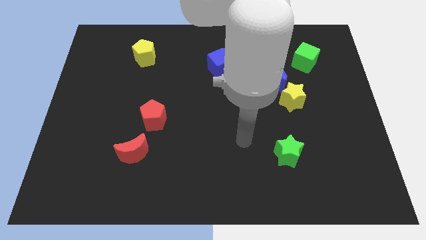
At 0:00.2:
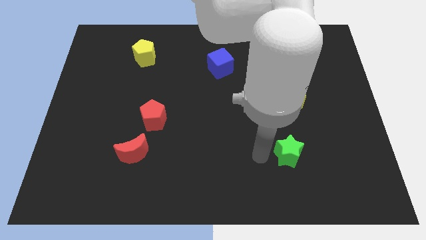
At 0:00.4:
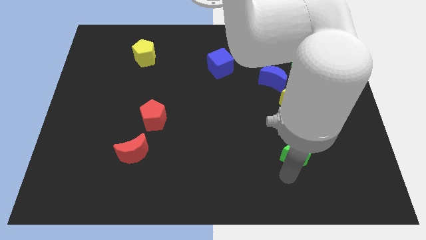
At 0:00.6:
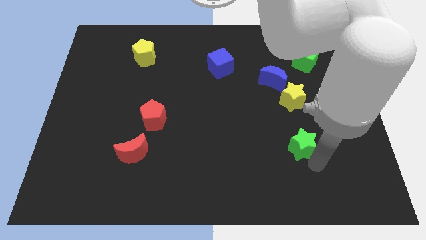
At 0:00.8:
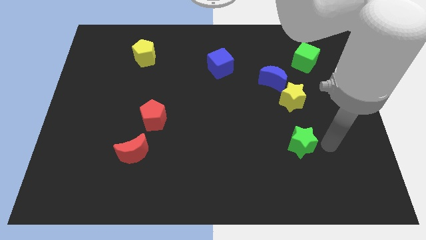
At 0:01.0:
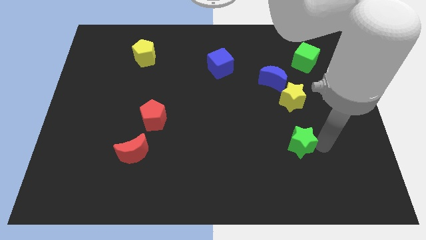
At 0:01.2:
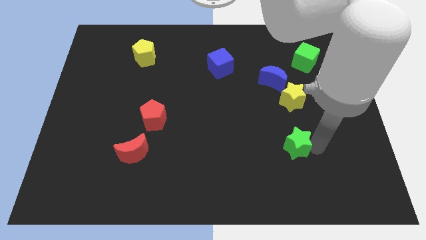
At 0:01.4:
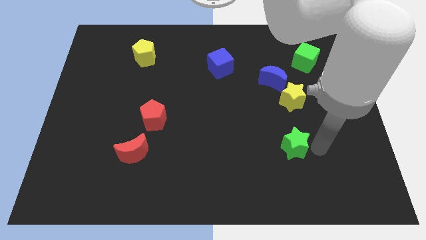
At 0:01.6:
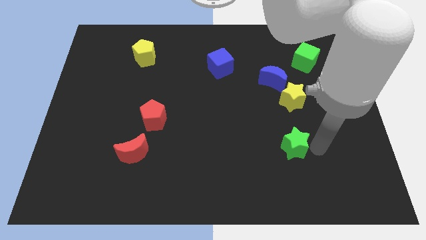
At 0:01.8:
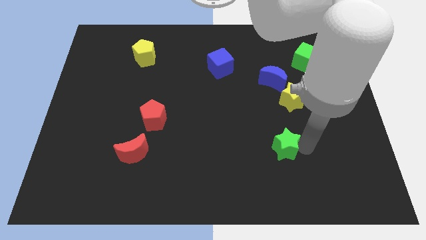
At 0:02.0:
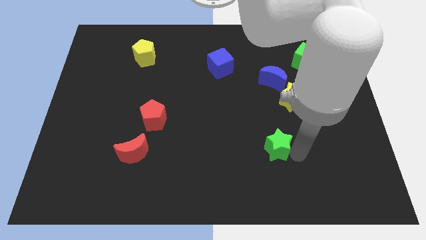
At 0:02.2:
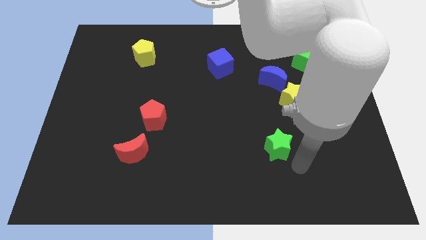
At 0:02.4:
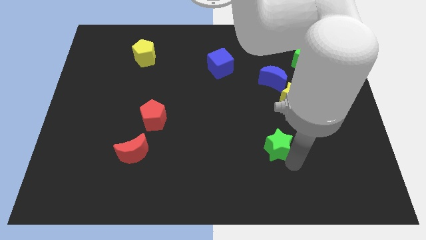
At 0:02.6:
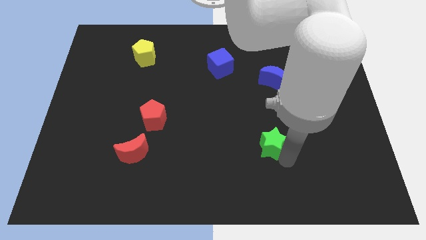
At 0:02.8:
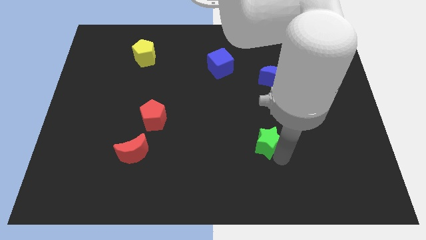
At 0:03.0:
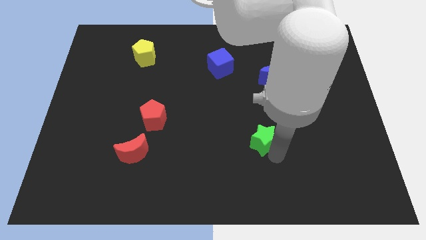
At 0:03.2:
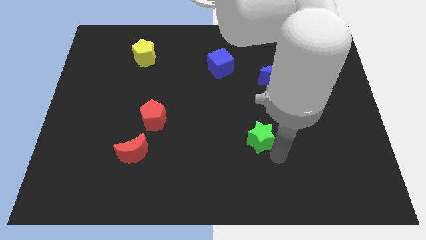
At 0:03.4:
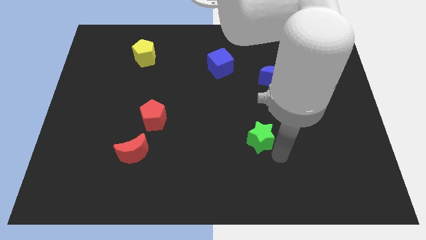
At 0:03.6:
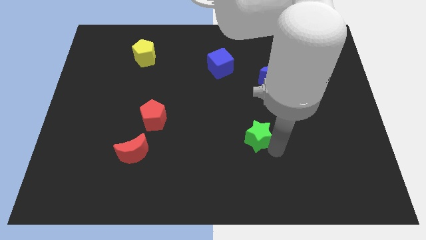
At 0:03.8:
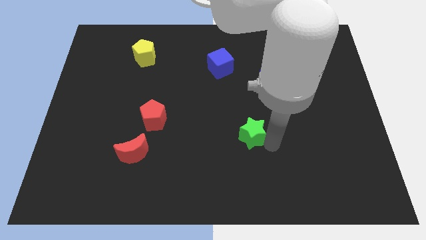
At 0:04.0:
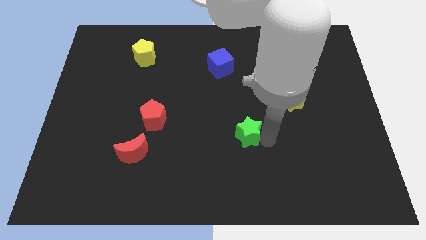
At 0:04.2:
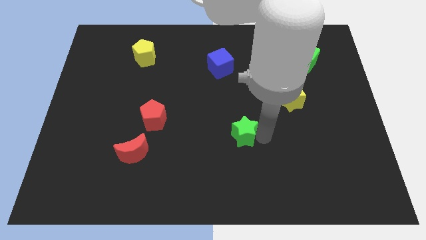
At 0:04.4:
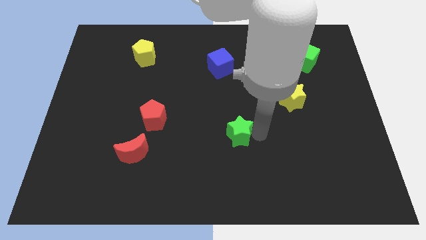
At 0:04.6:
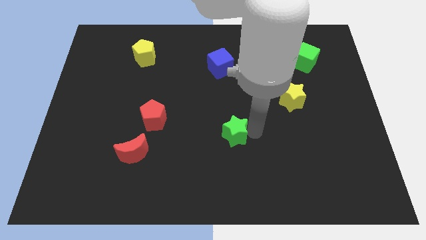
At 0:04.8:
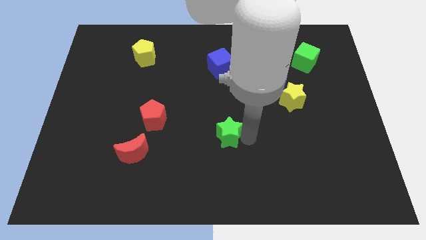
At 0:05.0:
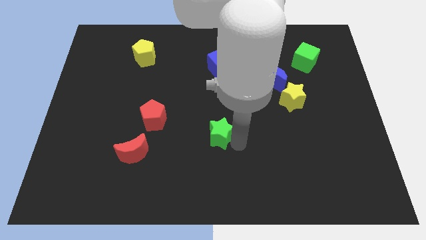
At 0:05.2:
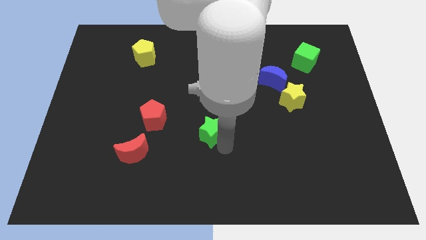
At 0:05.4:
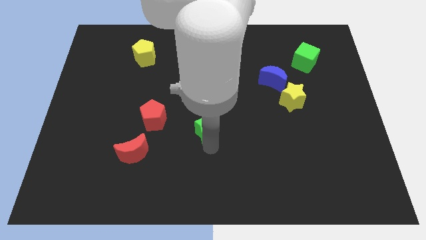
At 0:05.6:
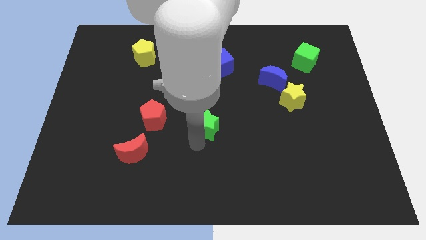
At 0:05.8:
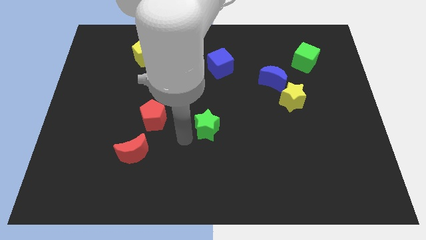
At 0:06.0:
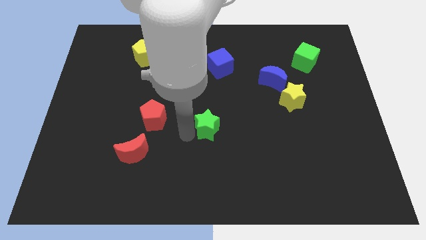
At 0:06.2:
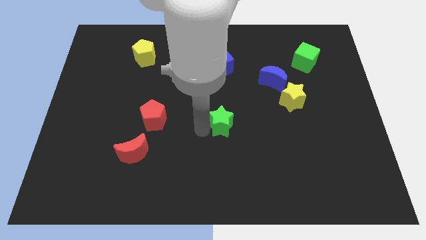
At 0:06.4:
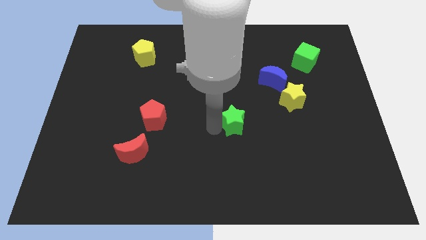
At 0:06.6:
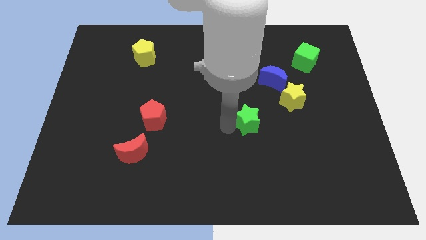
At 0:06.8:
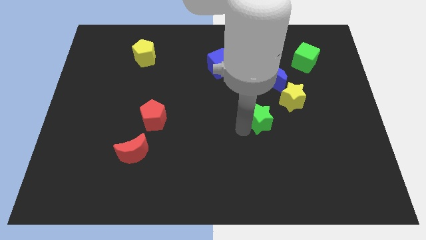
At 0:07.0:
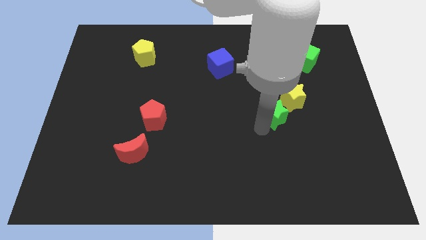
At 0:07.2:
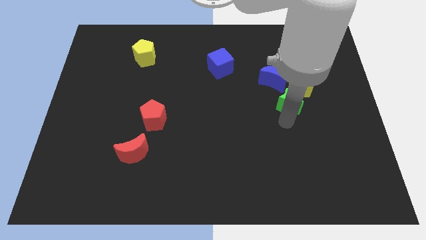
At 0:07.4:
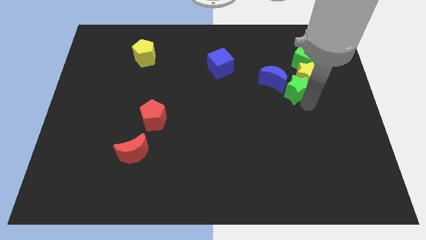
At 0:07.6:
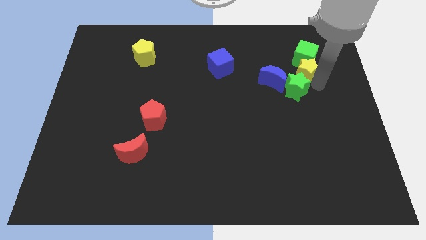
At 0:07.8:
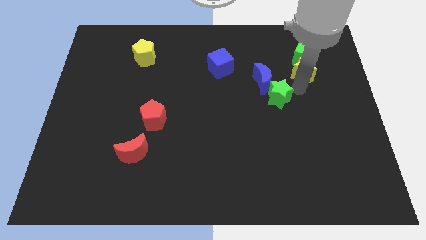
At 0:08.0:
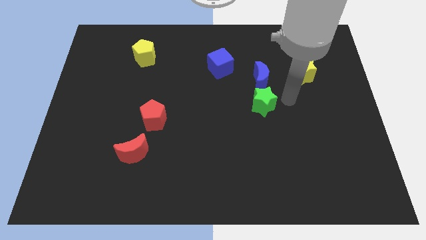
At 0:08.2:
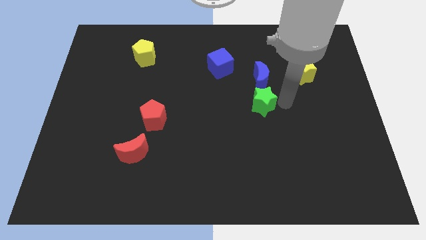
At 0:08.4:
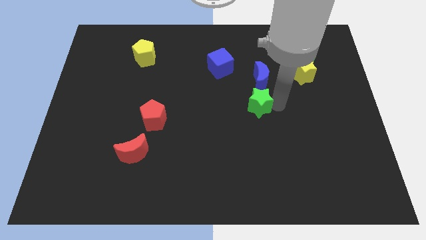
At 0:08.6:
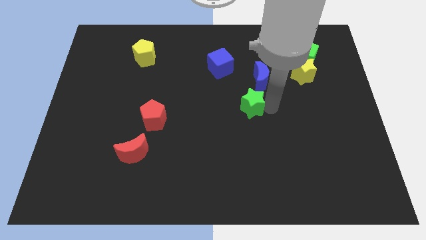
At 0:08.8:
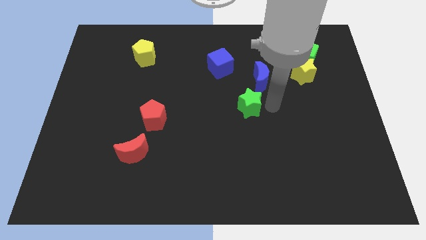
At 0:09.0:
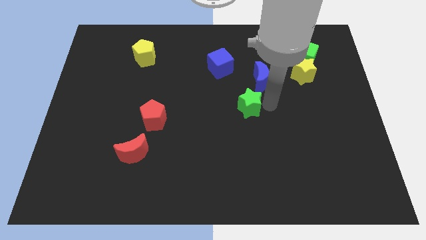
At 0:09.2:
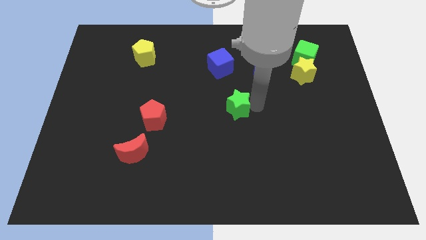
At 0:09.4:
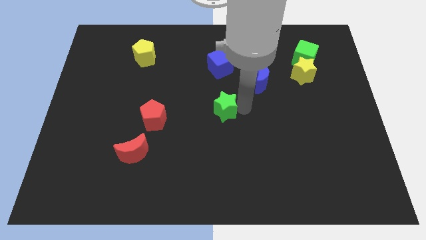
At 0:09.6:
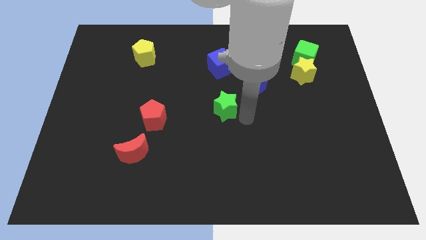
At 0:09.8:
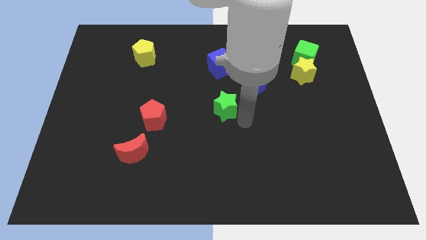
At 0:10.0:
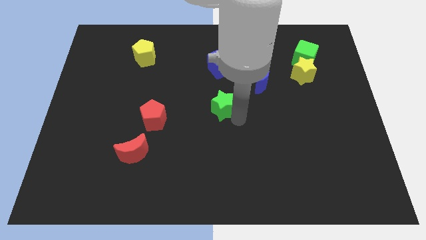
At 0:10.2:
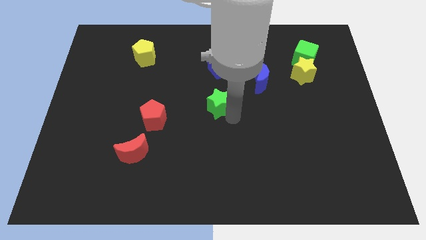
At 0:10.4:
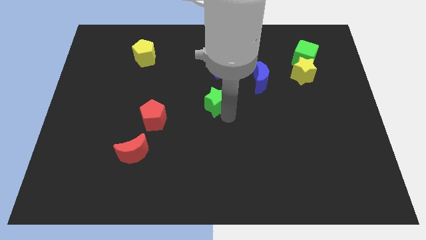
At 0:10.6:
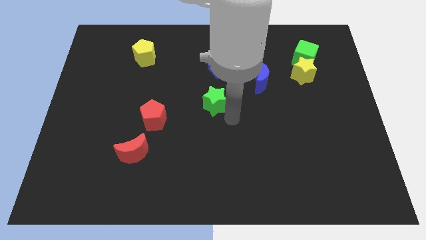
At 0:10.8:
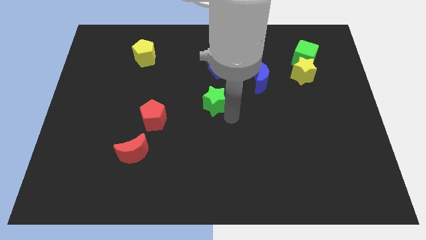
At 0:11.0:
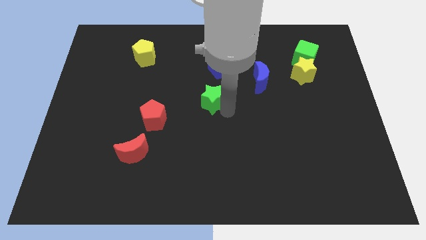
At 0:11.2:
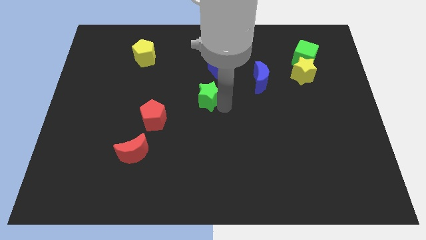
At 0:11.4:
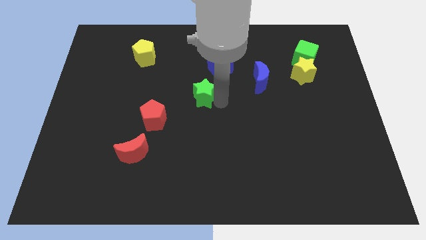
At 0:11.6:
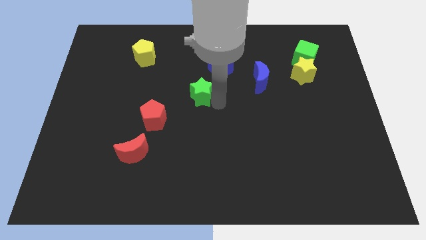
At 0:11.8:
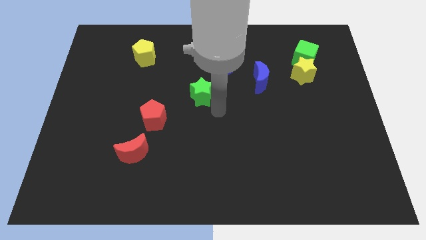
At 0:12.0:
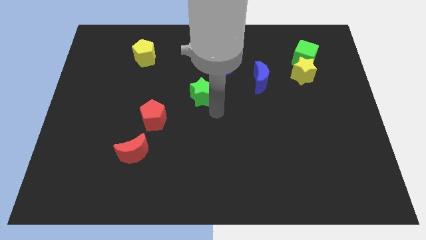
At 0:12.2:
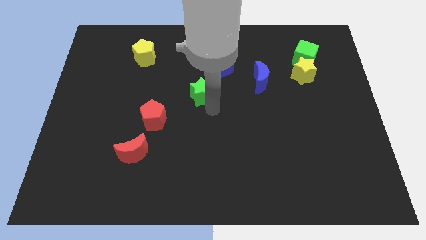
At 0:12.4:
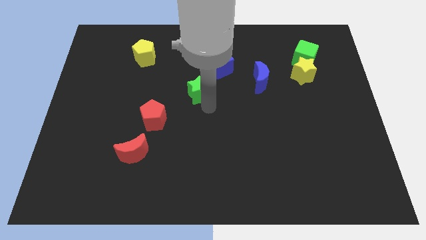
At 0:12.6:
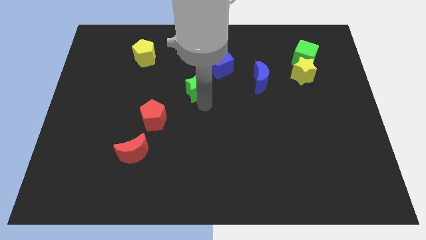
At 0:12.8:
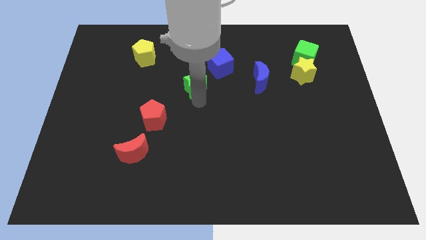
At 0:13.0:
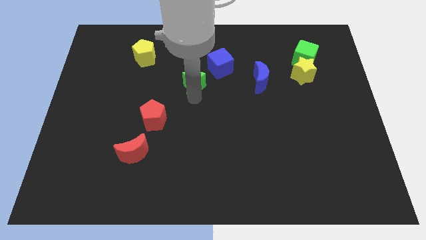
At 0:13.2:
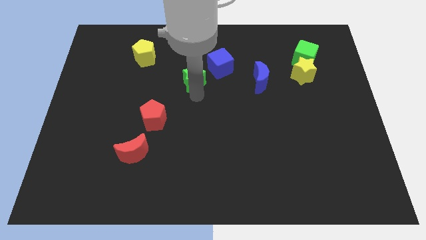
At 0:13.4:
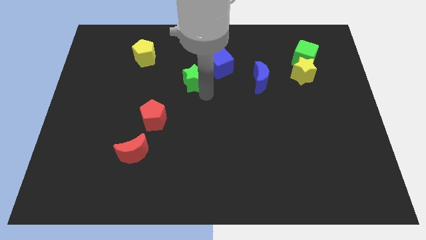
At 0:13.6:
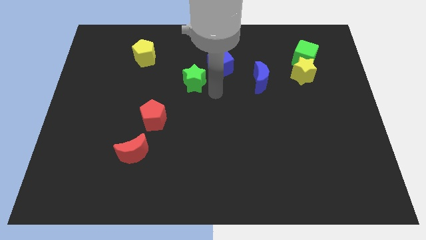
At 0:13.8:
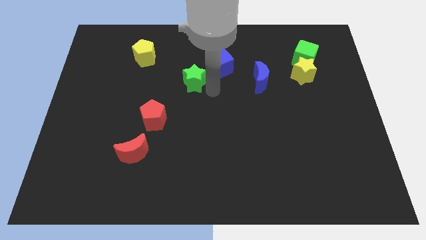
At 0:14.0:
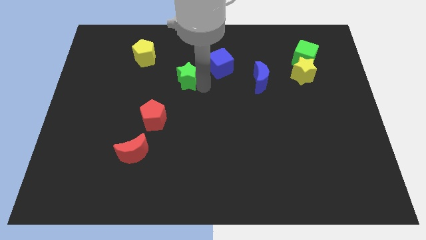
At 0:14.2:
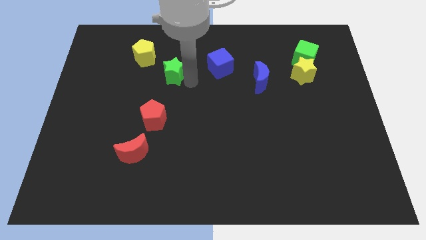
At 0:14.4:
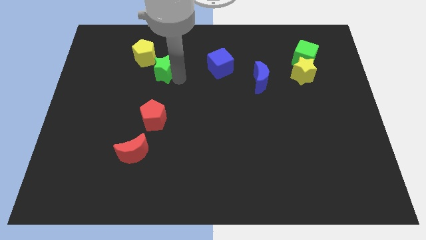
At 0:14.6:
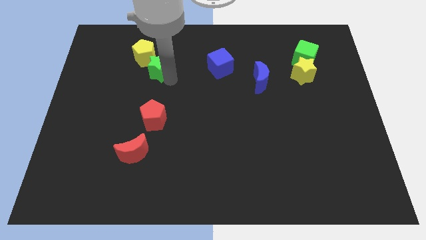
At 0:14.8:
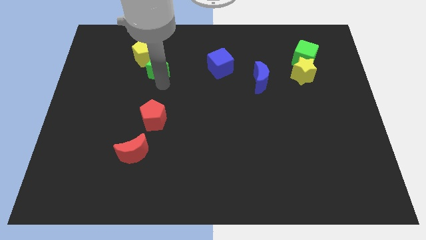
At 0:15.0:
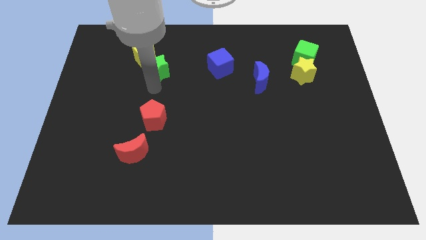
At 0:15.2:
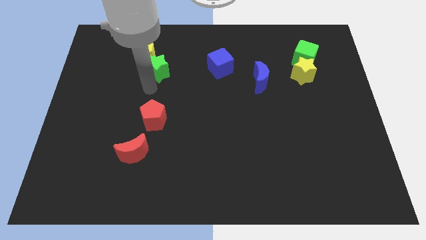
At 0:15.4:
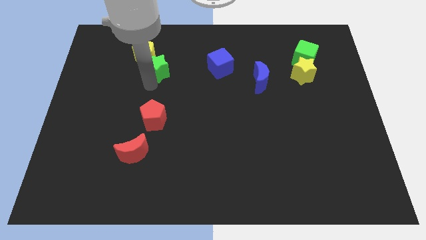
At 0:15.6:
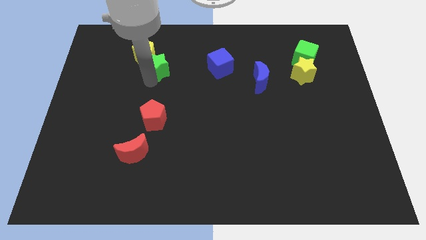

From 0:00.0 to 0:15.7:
slide the green star towards the yellow pentagon
